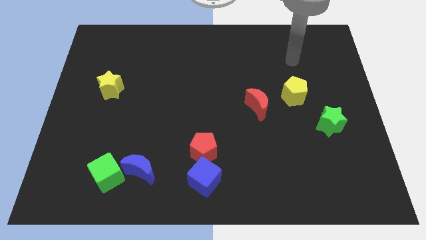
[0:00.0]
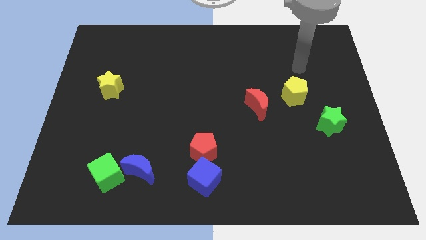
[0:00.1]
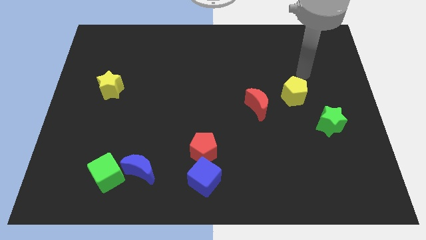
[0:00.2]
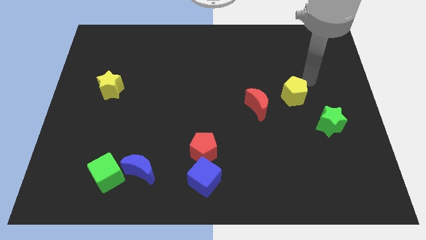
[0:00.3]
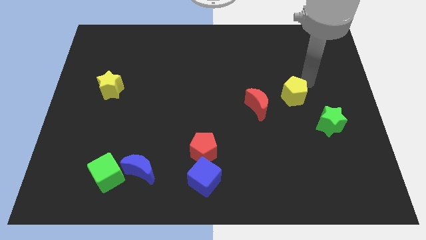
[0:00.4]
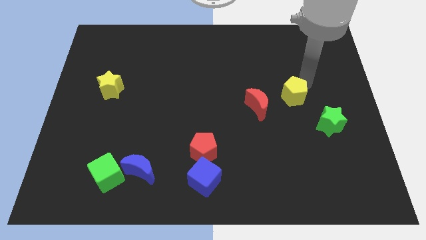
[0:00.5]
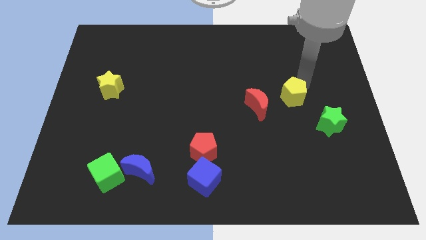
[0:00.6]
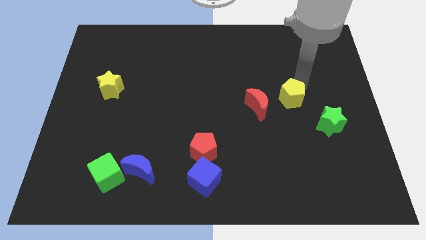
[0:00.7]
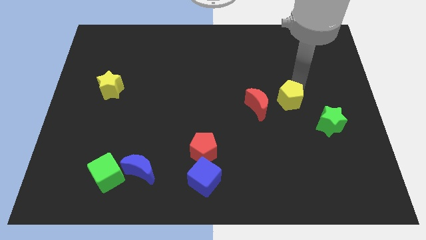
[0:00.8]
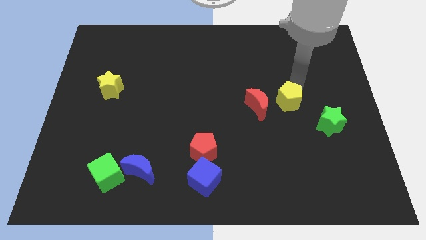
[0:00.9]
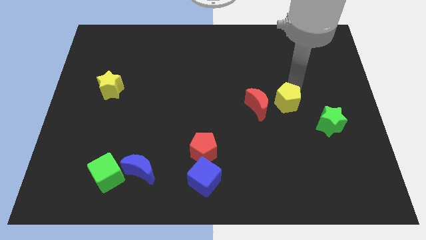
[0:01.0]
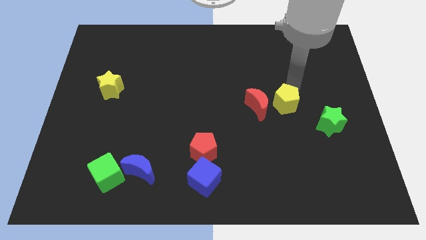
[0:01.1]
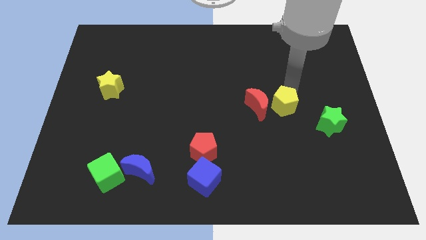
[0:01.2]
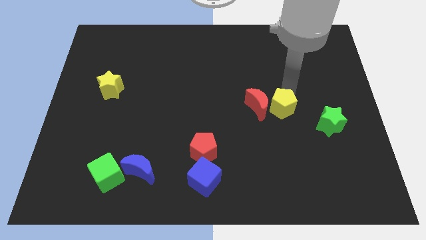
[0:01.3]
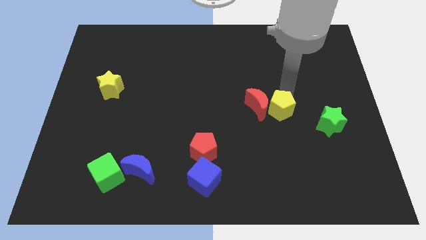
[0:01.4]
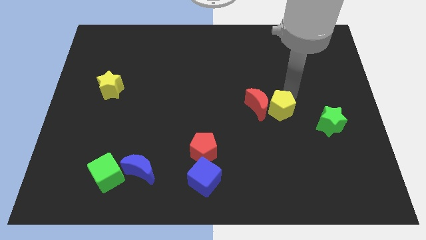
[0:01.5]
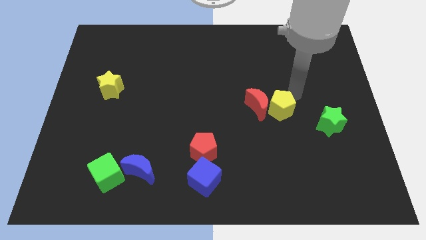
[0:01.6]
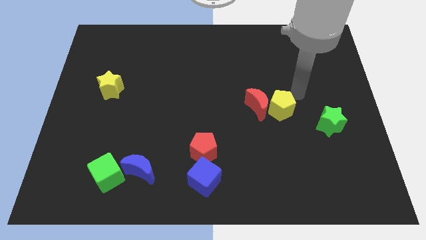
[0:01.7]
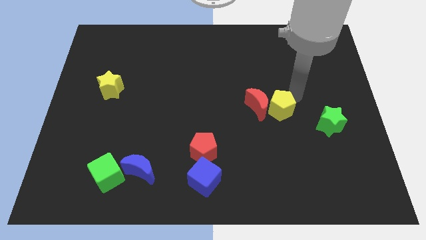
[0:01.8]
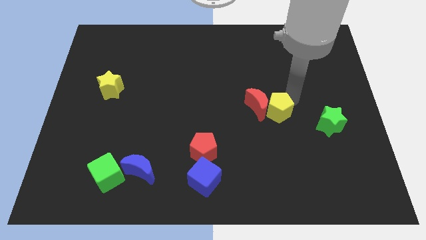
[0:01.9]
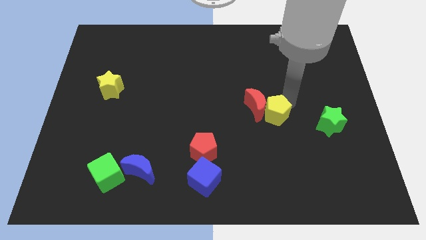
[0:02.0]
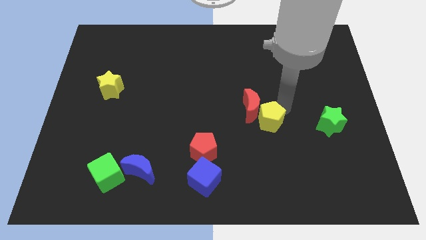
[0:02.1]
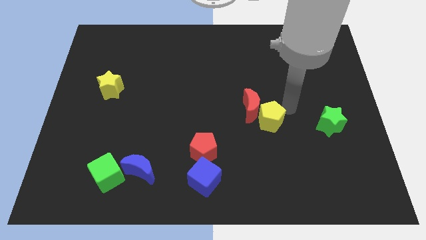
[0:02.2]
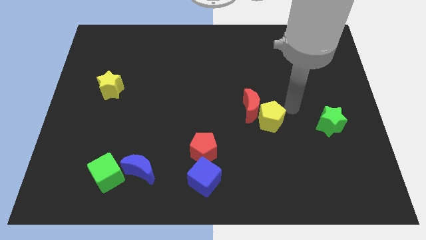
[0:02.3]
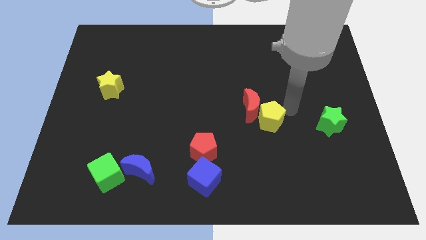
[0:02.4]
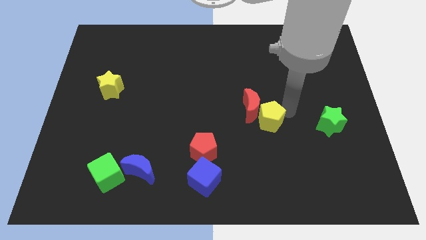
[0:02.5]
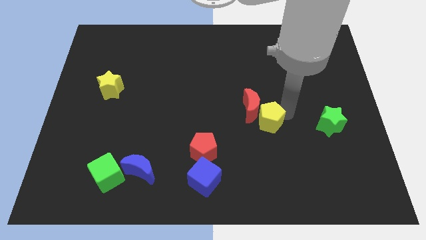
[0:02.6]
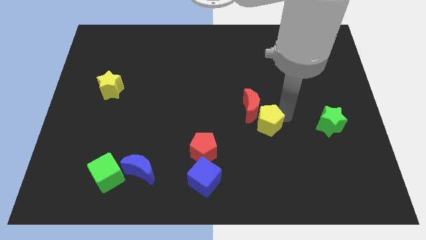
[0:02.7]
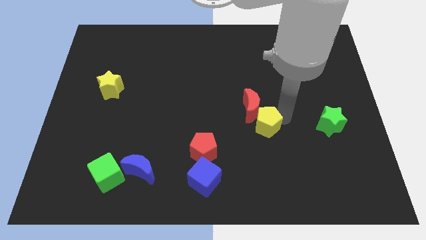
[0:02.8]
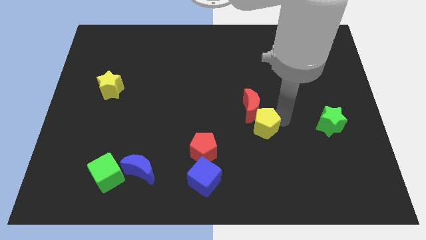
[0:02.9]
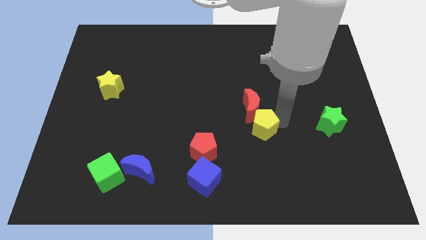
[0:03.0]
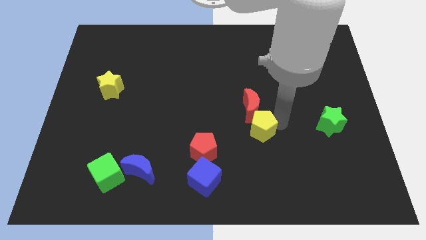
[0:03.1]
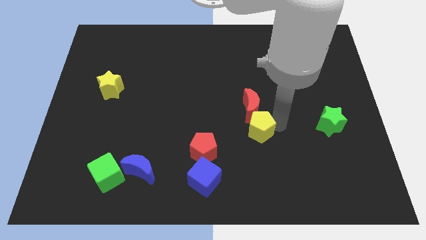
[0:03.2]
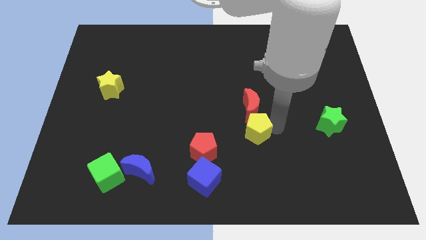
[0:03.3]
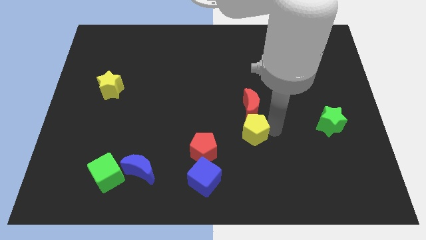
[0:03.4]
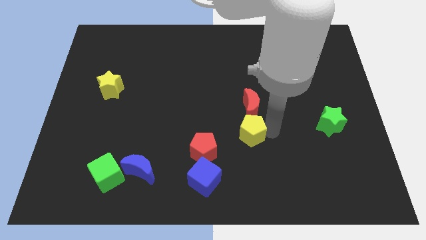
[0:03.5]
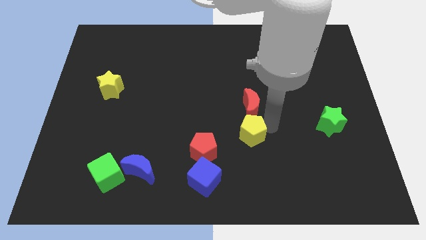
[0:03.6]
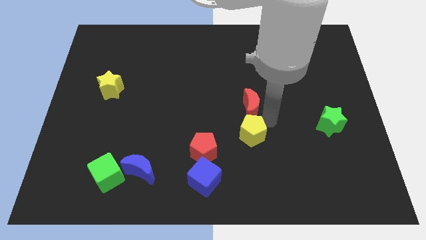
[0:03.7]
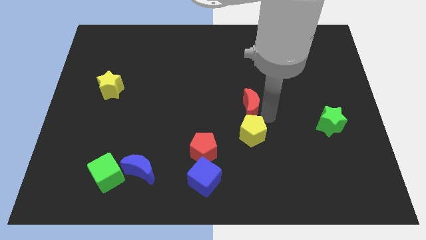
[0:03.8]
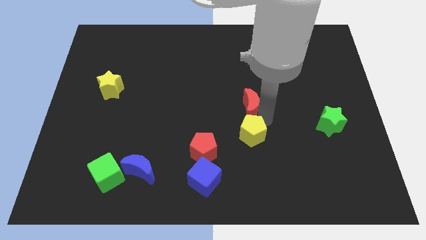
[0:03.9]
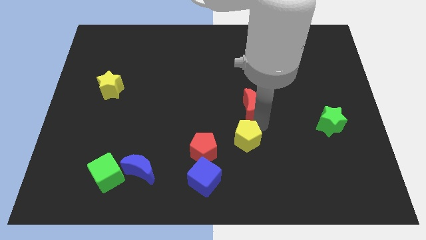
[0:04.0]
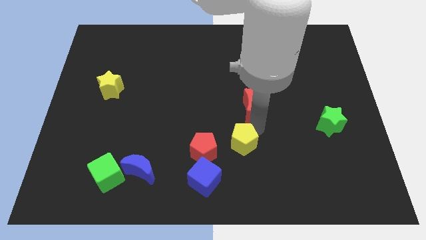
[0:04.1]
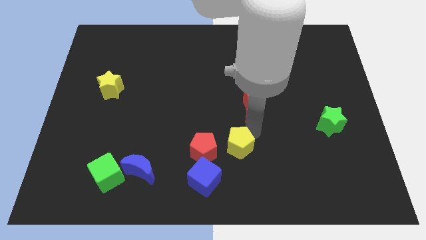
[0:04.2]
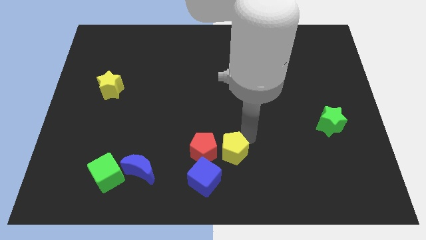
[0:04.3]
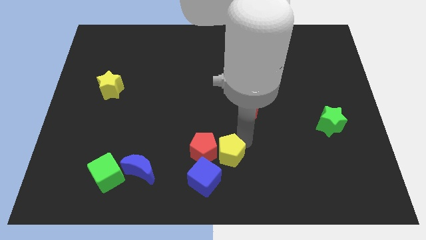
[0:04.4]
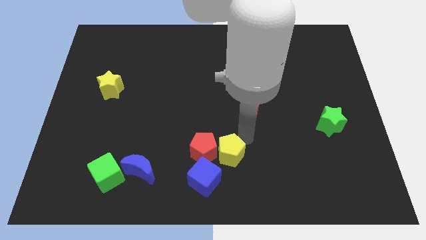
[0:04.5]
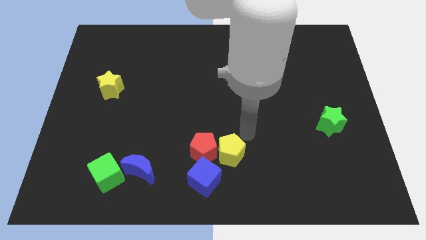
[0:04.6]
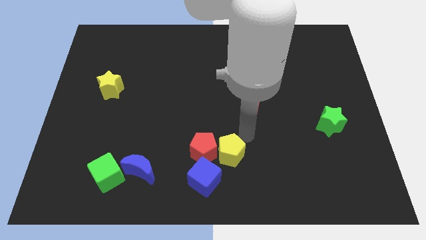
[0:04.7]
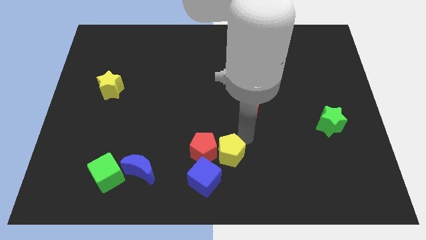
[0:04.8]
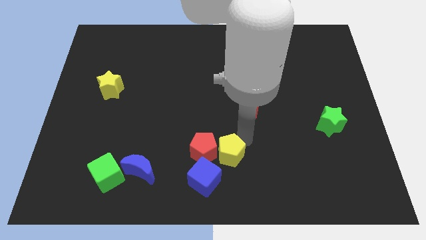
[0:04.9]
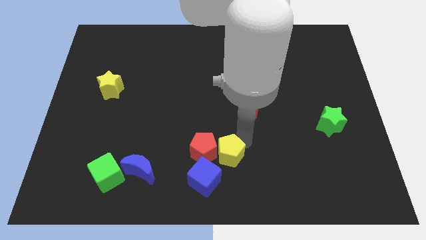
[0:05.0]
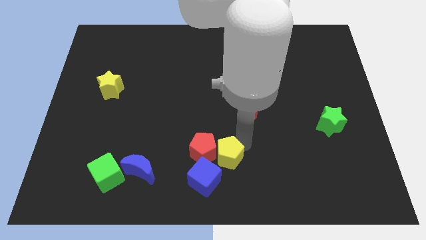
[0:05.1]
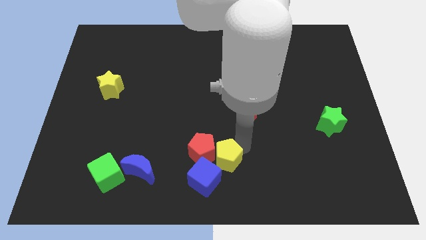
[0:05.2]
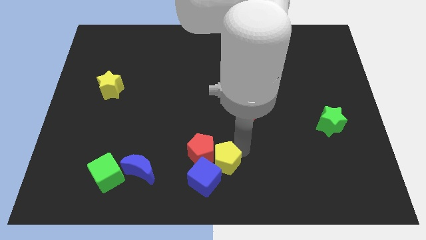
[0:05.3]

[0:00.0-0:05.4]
move the yellow pentagon next to the blue cube

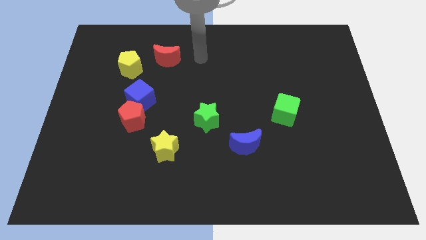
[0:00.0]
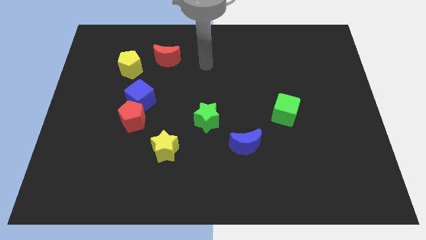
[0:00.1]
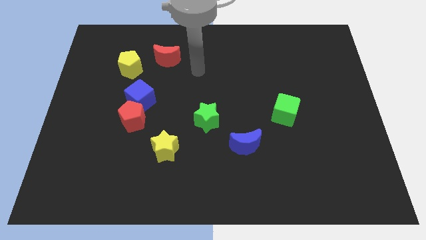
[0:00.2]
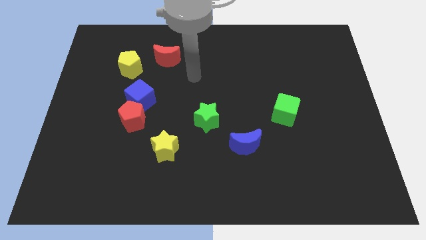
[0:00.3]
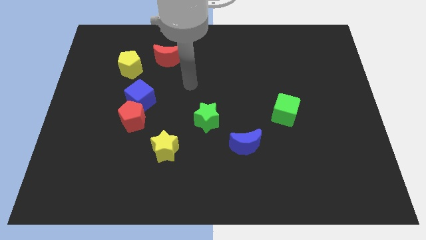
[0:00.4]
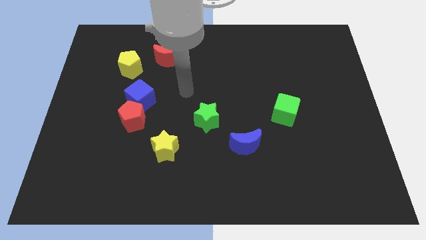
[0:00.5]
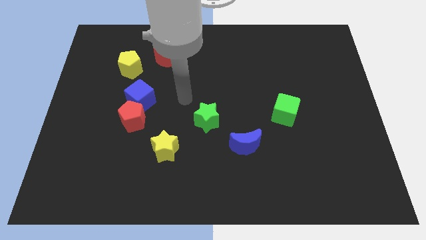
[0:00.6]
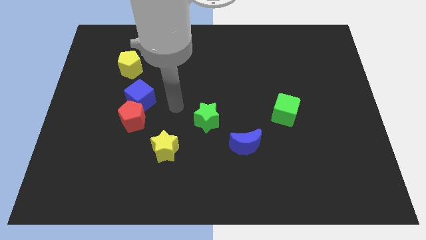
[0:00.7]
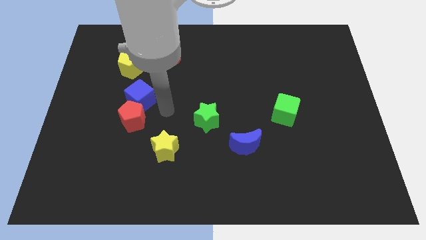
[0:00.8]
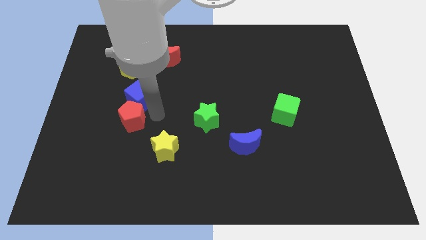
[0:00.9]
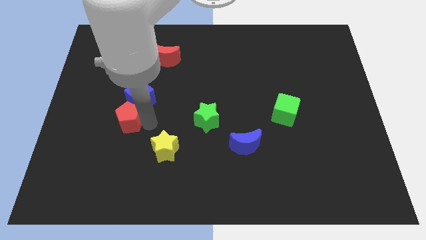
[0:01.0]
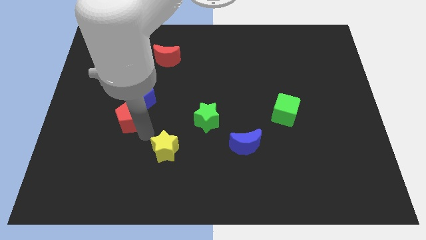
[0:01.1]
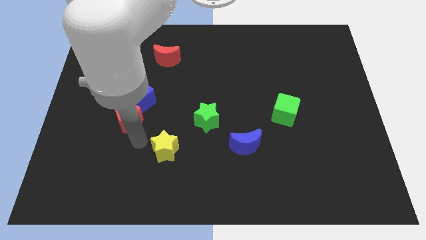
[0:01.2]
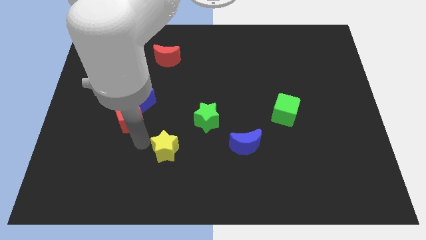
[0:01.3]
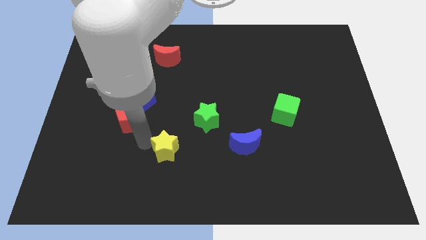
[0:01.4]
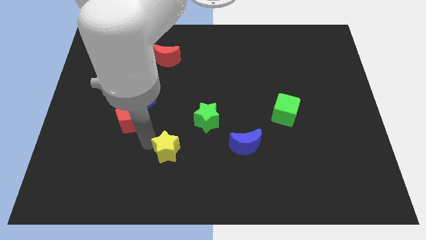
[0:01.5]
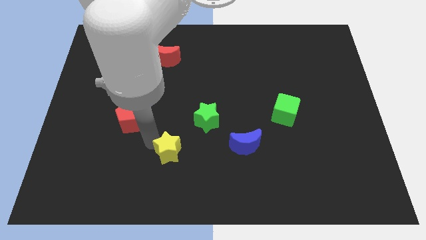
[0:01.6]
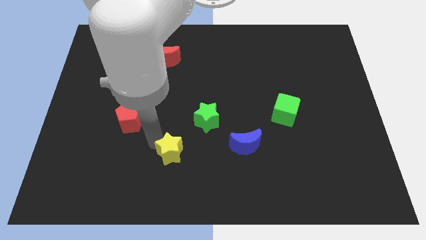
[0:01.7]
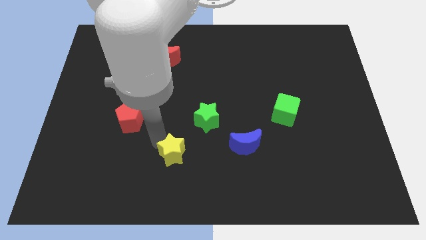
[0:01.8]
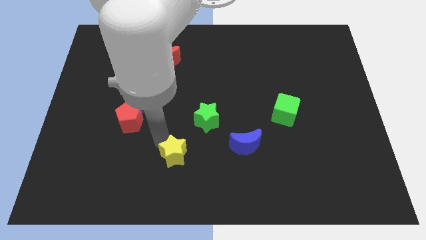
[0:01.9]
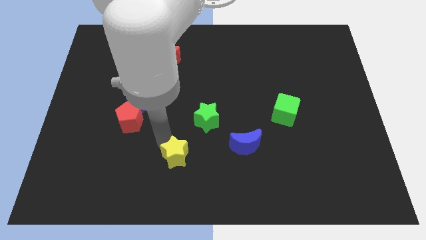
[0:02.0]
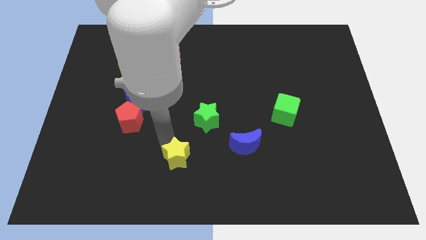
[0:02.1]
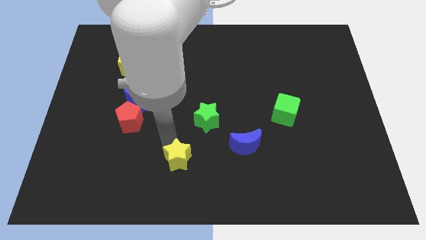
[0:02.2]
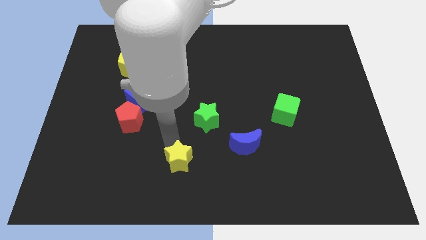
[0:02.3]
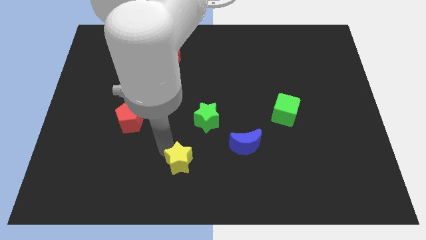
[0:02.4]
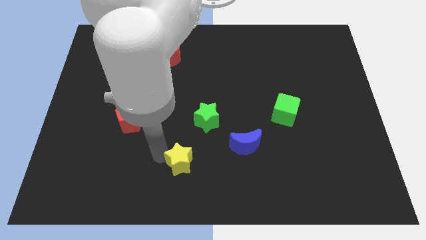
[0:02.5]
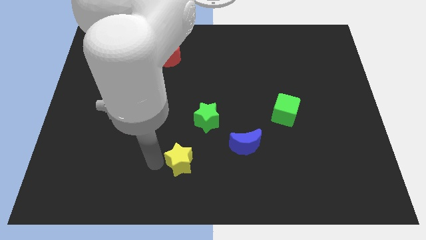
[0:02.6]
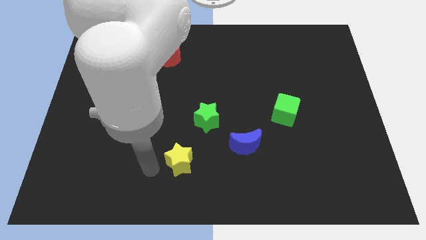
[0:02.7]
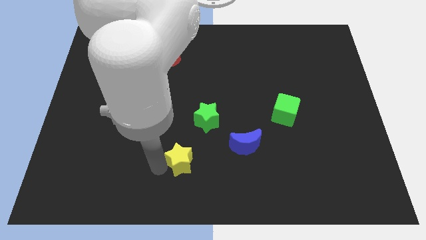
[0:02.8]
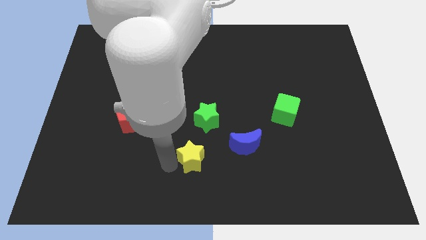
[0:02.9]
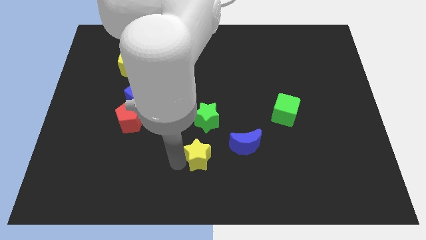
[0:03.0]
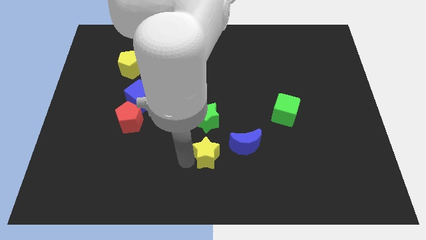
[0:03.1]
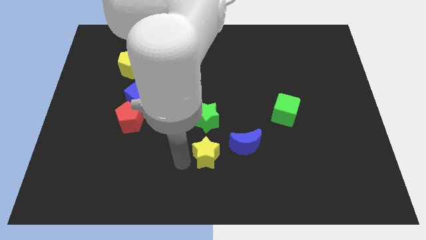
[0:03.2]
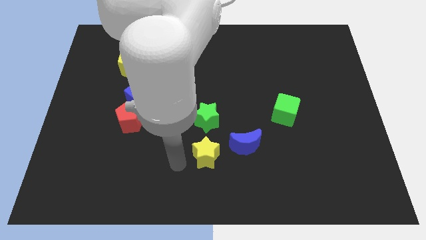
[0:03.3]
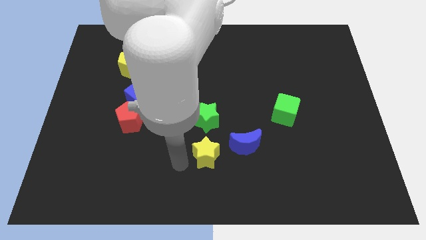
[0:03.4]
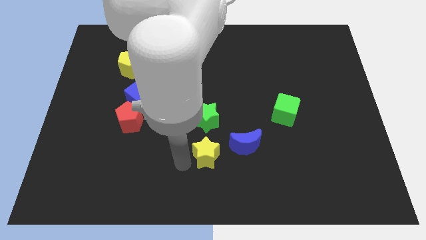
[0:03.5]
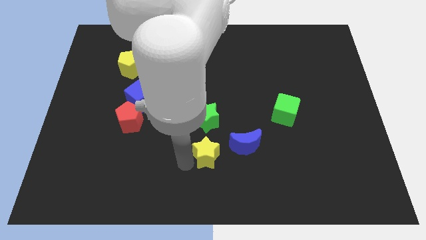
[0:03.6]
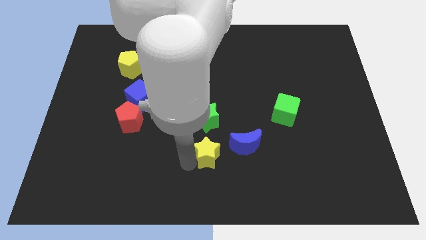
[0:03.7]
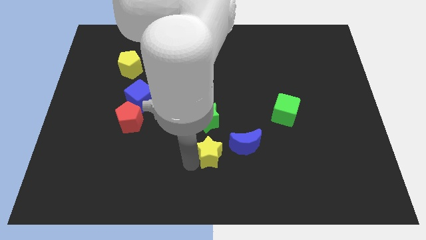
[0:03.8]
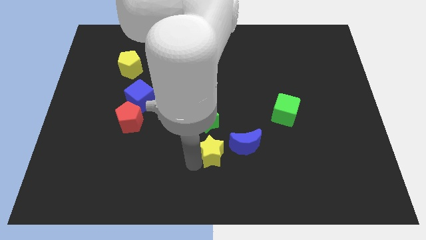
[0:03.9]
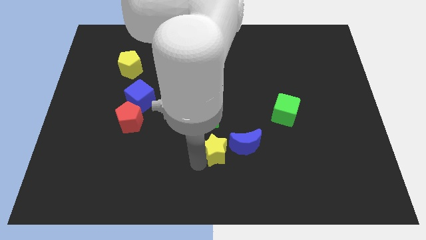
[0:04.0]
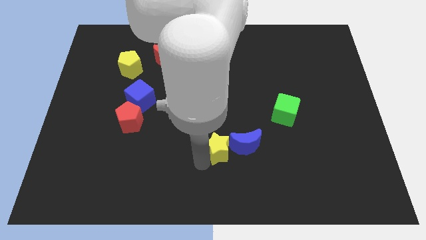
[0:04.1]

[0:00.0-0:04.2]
slide the yellow star next to the blue moon
